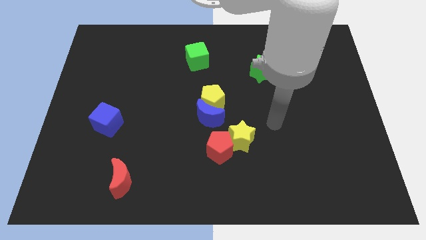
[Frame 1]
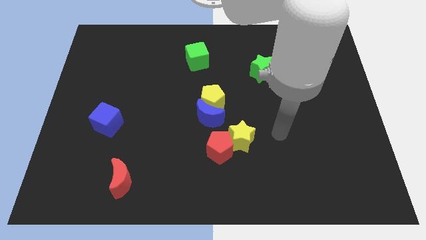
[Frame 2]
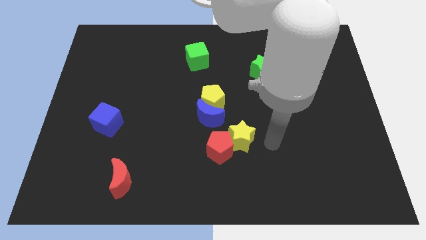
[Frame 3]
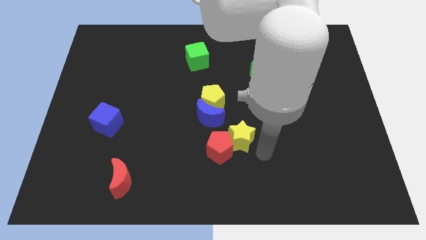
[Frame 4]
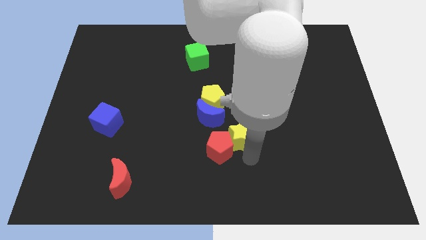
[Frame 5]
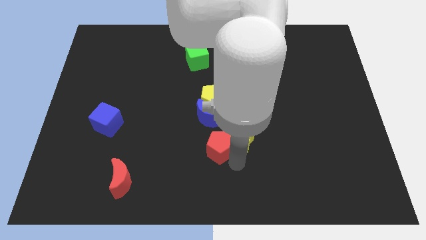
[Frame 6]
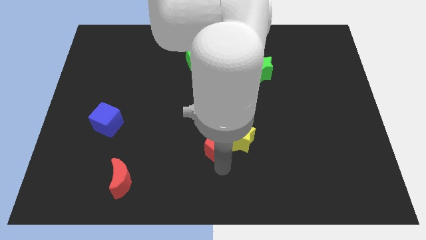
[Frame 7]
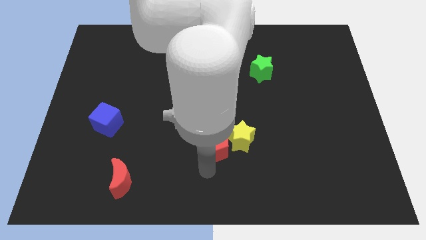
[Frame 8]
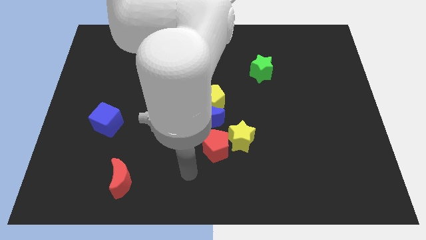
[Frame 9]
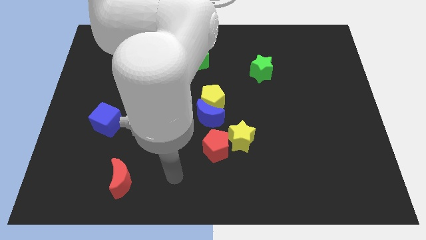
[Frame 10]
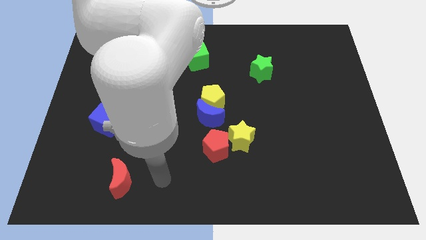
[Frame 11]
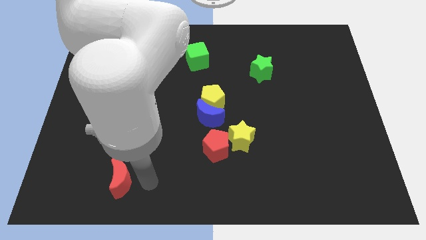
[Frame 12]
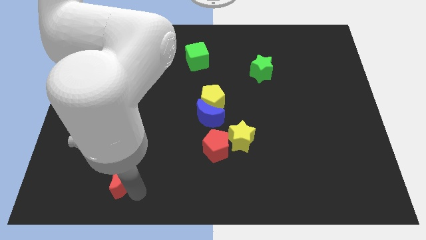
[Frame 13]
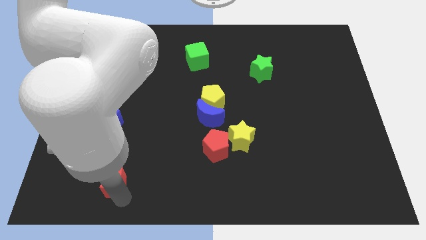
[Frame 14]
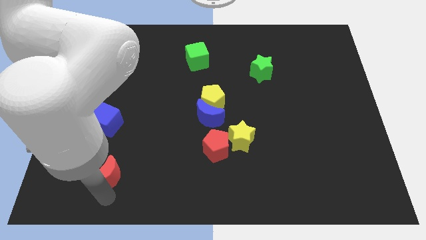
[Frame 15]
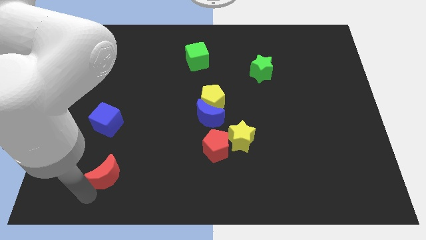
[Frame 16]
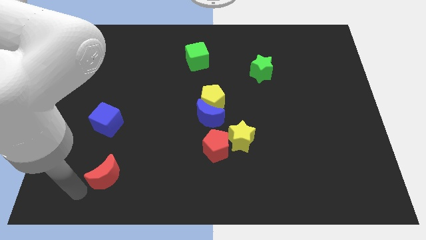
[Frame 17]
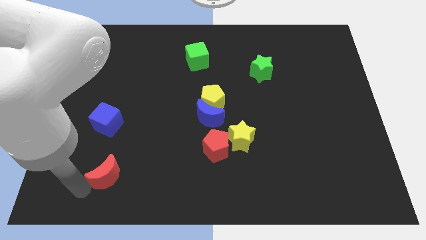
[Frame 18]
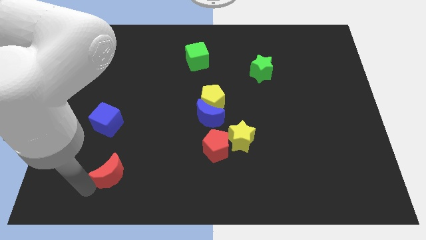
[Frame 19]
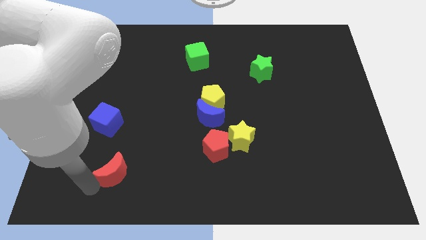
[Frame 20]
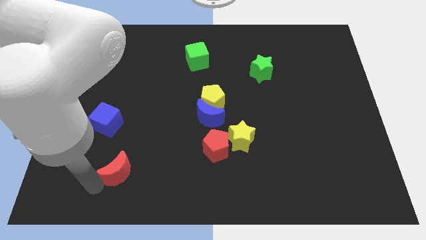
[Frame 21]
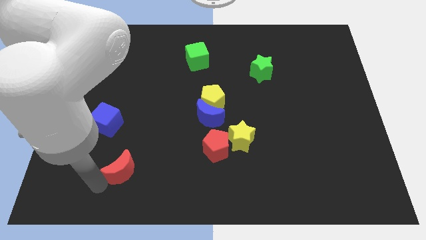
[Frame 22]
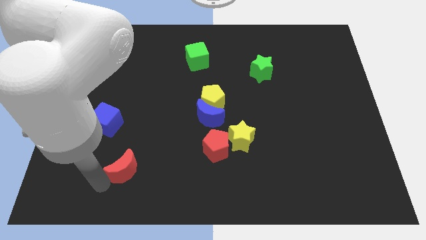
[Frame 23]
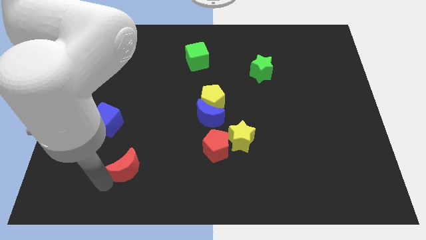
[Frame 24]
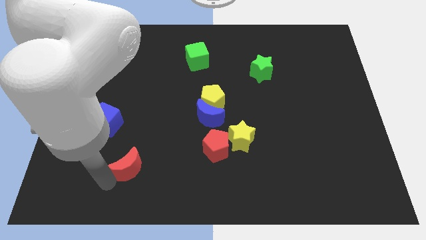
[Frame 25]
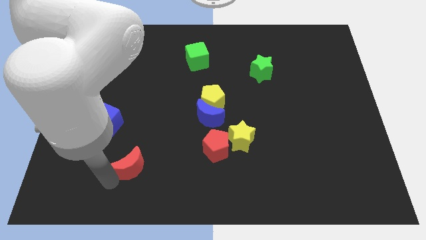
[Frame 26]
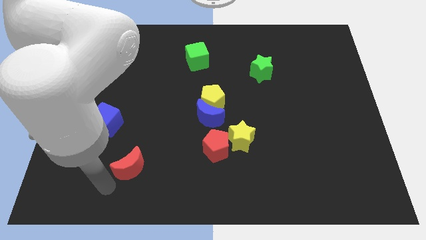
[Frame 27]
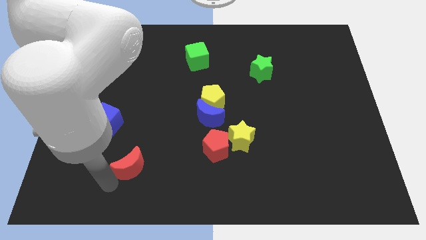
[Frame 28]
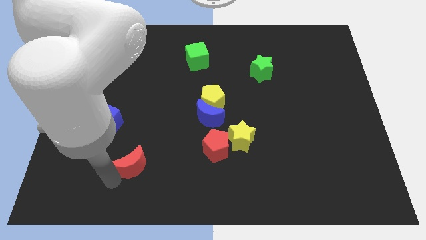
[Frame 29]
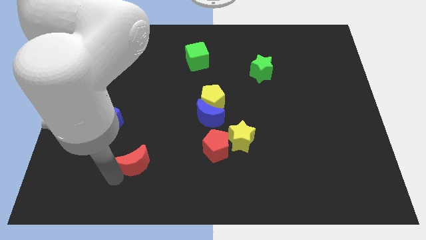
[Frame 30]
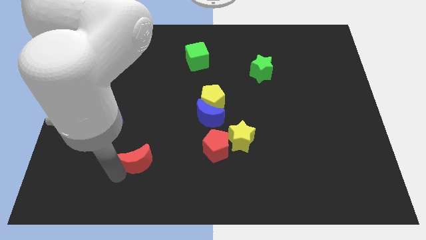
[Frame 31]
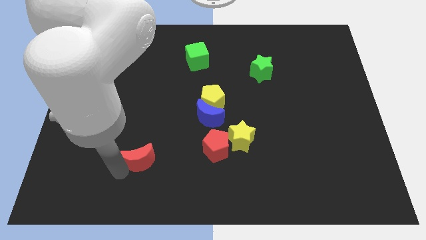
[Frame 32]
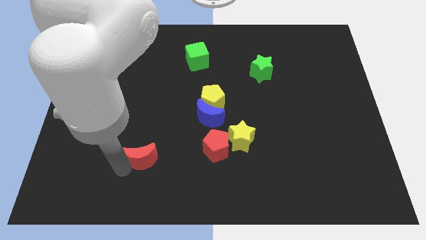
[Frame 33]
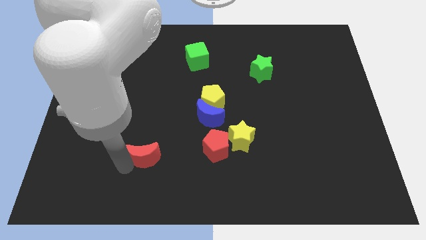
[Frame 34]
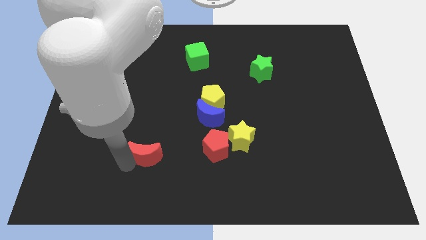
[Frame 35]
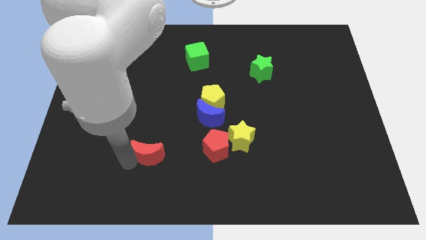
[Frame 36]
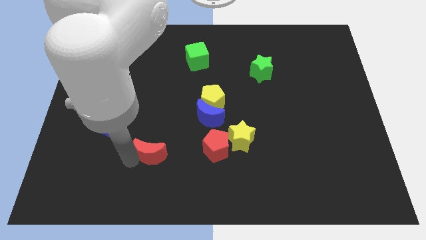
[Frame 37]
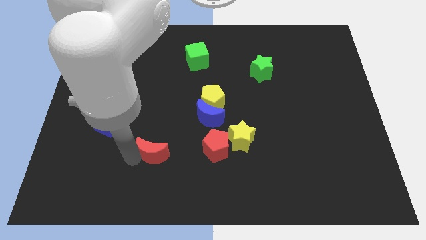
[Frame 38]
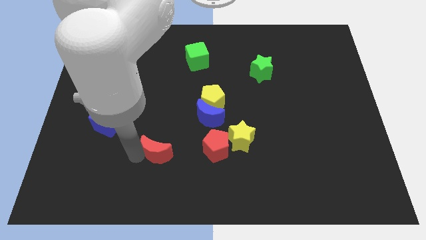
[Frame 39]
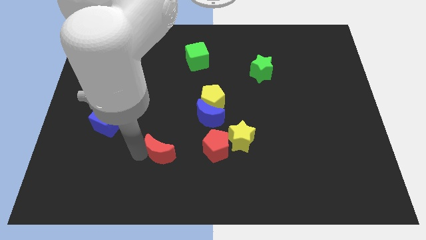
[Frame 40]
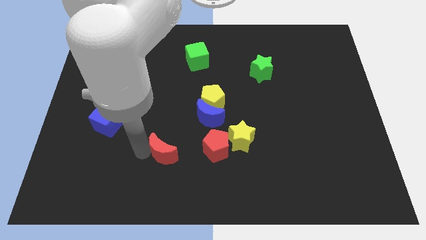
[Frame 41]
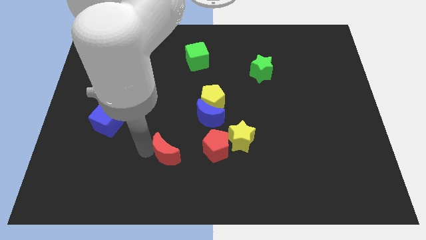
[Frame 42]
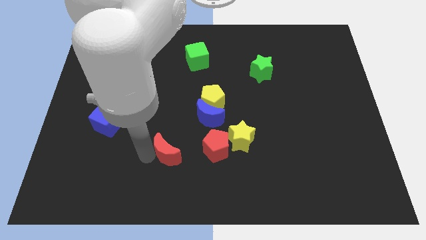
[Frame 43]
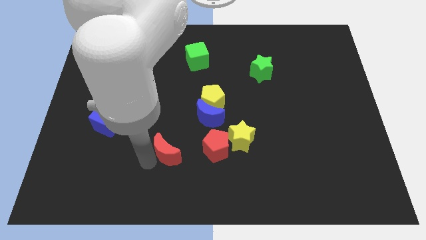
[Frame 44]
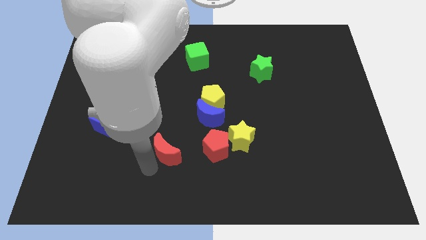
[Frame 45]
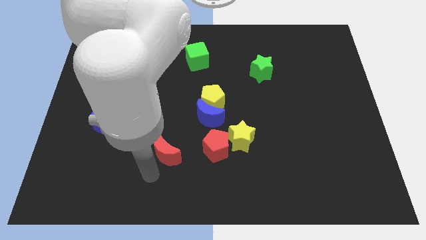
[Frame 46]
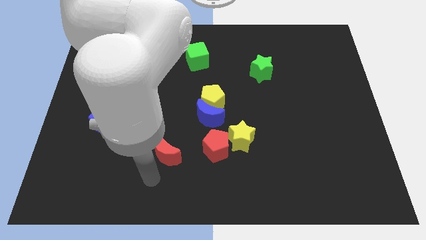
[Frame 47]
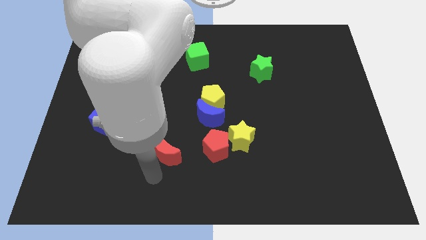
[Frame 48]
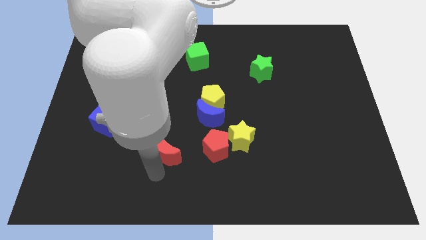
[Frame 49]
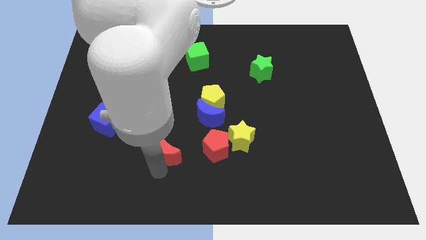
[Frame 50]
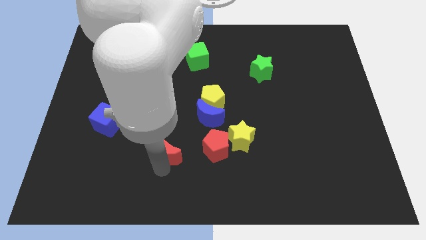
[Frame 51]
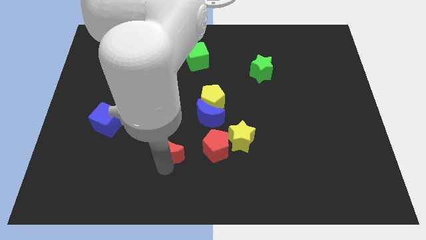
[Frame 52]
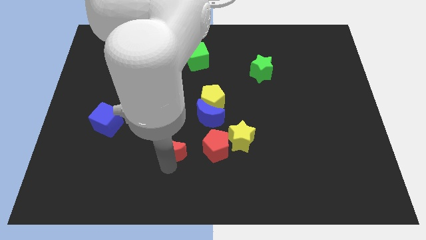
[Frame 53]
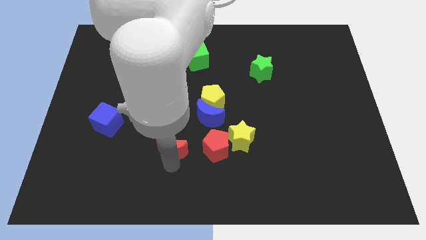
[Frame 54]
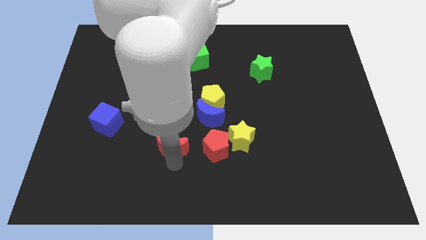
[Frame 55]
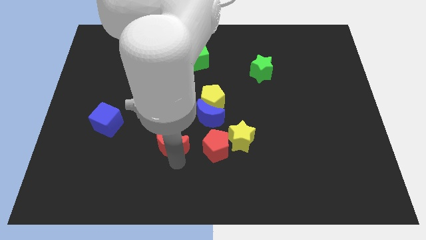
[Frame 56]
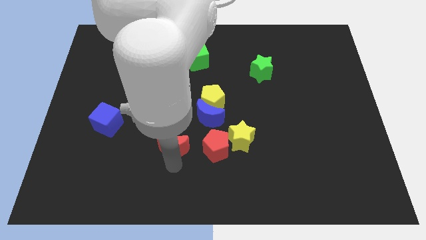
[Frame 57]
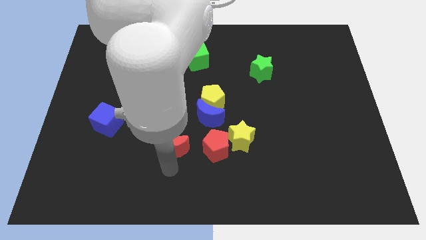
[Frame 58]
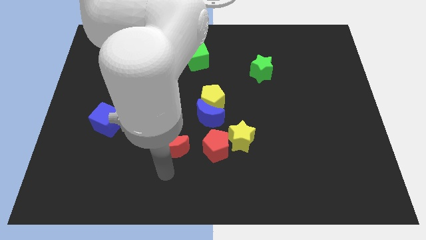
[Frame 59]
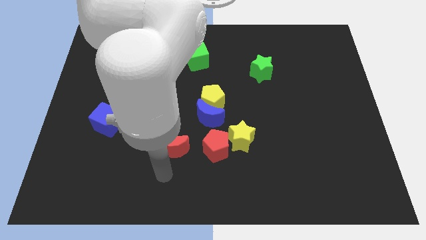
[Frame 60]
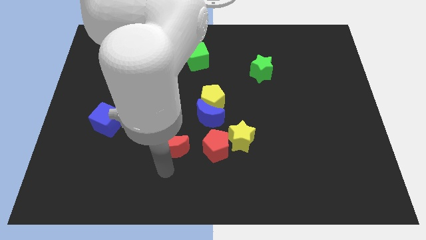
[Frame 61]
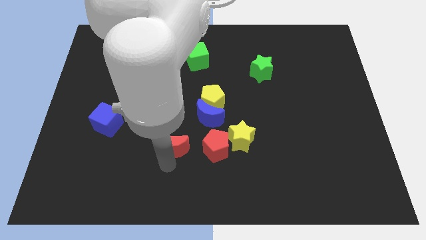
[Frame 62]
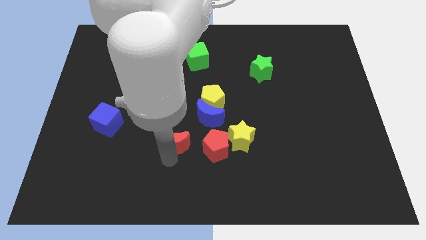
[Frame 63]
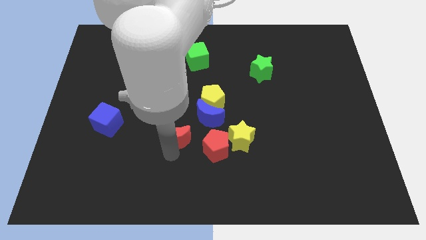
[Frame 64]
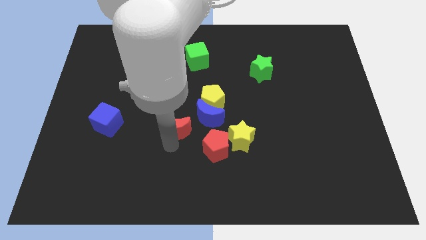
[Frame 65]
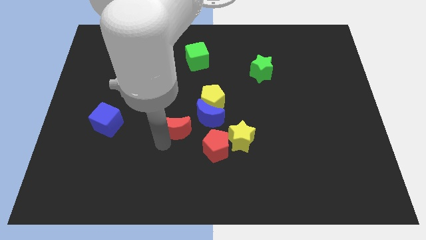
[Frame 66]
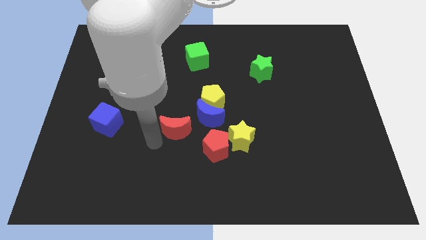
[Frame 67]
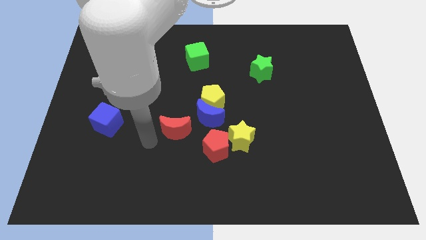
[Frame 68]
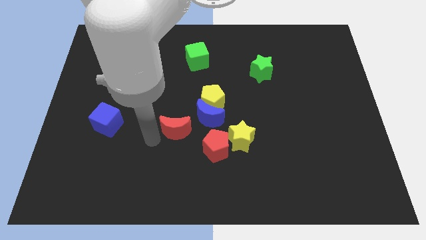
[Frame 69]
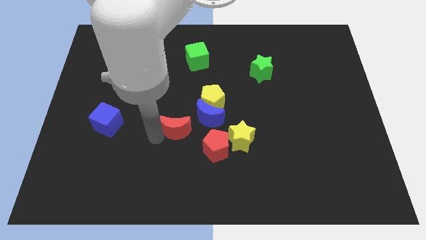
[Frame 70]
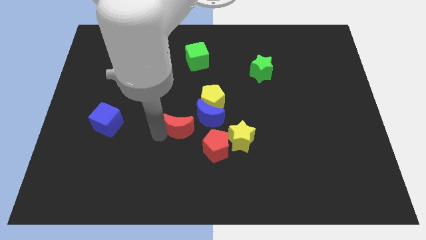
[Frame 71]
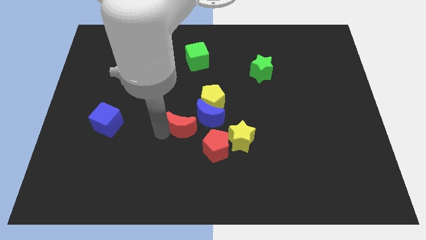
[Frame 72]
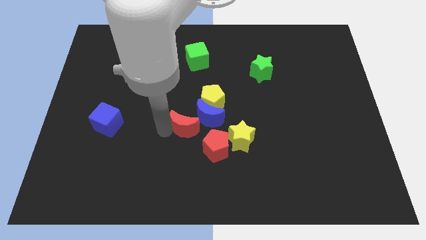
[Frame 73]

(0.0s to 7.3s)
put the red moon towards the blue moon

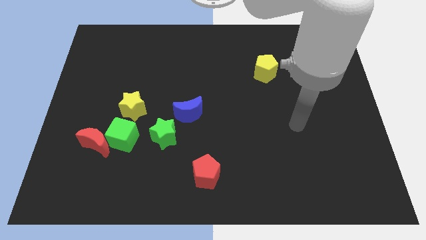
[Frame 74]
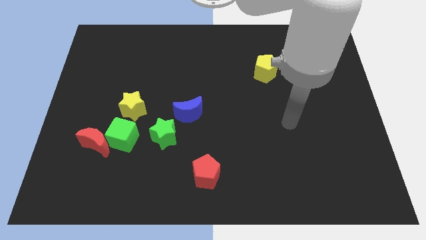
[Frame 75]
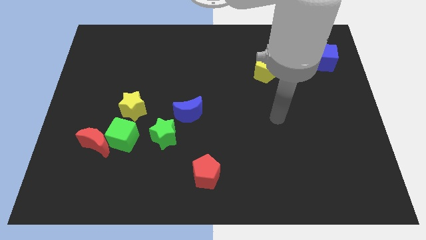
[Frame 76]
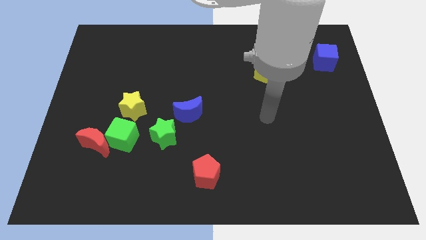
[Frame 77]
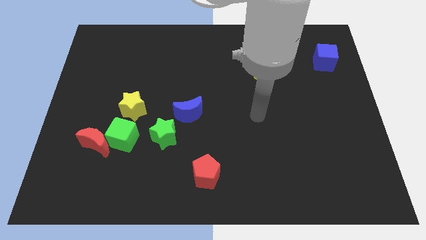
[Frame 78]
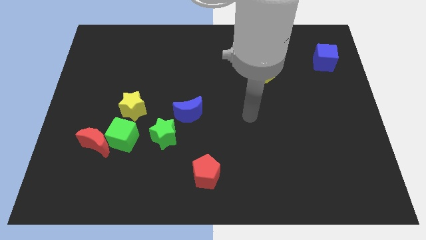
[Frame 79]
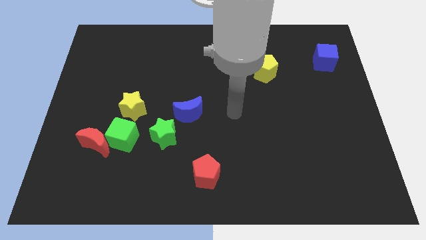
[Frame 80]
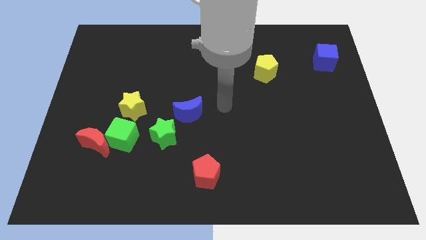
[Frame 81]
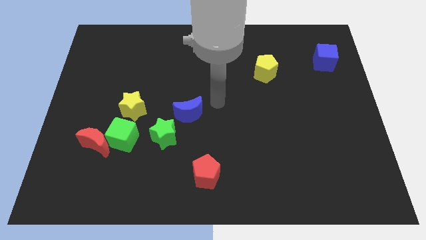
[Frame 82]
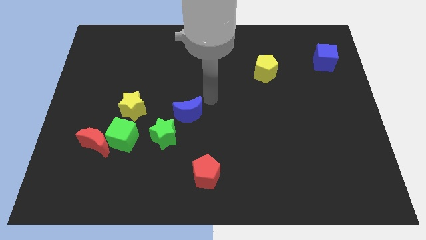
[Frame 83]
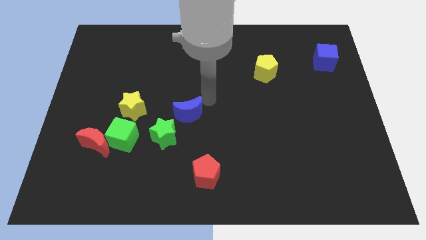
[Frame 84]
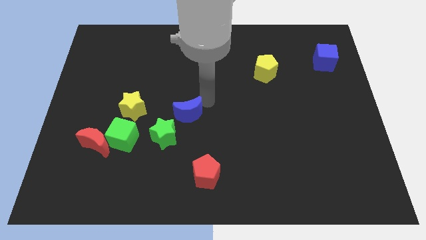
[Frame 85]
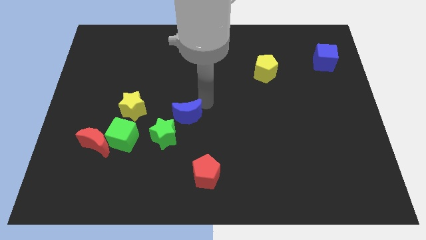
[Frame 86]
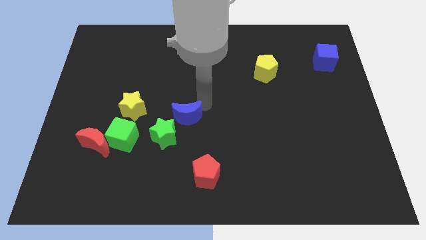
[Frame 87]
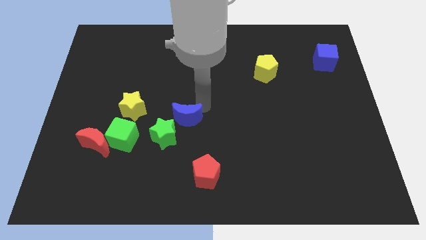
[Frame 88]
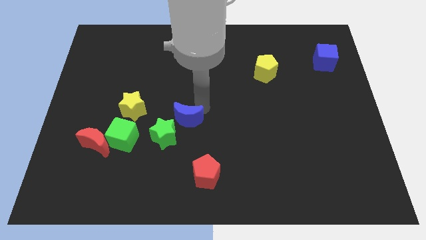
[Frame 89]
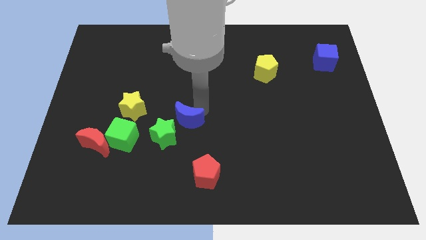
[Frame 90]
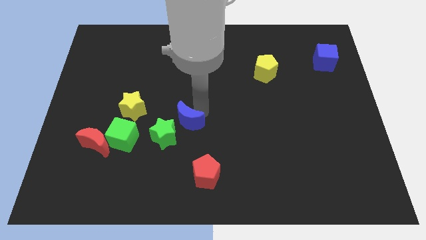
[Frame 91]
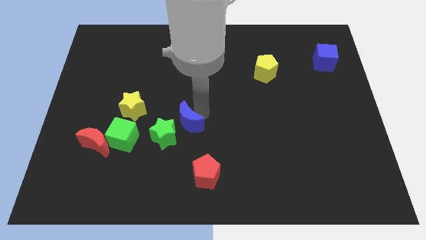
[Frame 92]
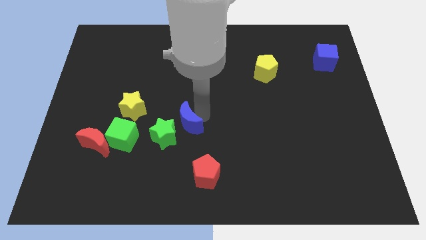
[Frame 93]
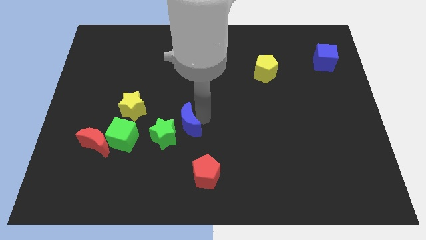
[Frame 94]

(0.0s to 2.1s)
put the blue moon towards the green star
